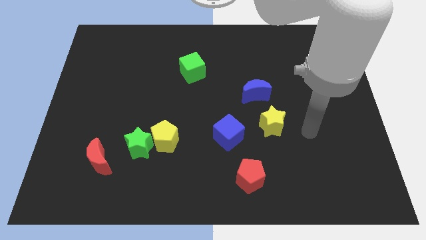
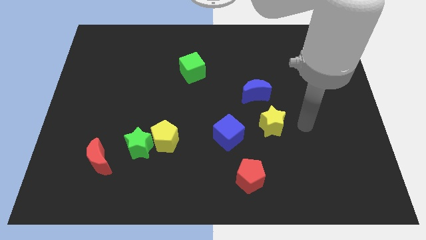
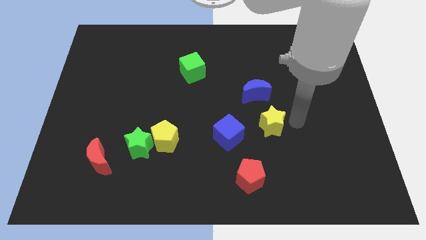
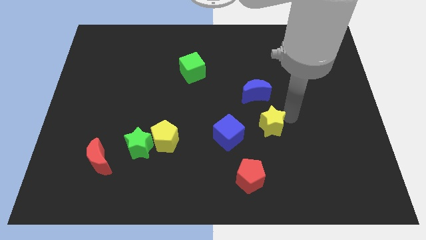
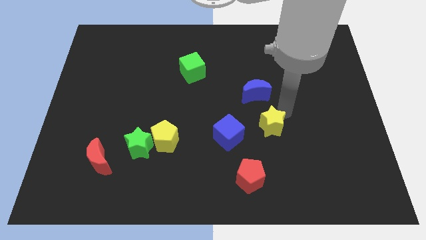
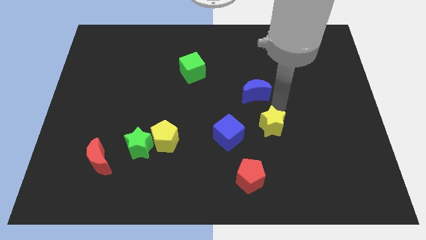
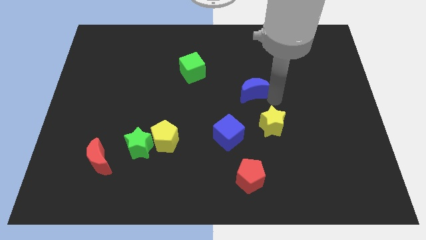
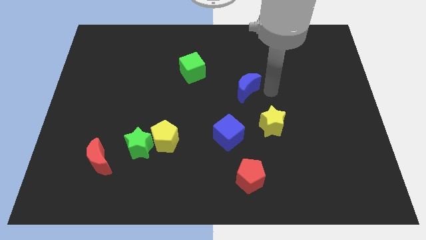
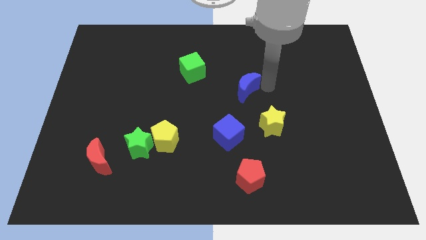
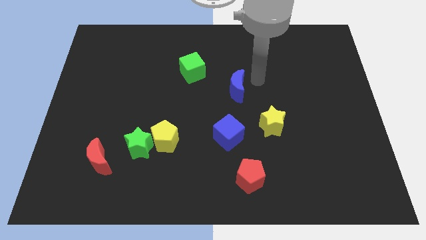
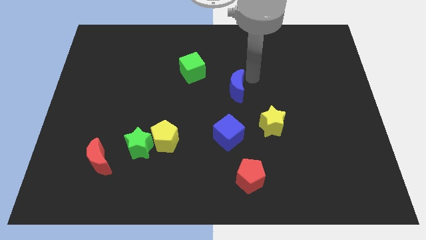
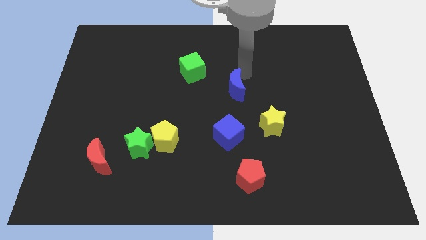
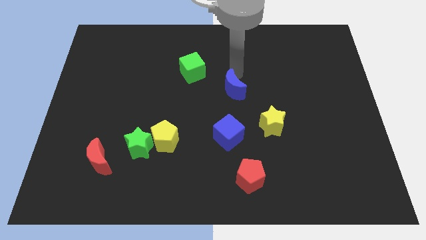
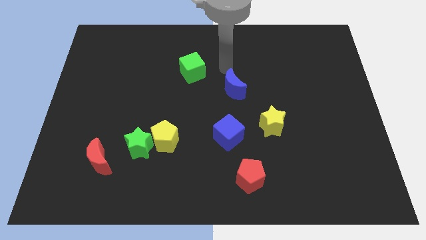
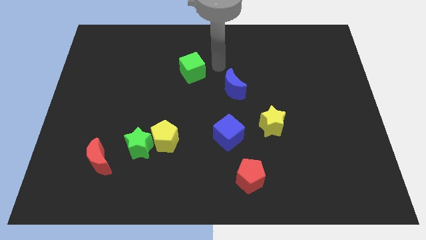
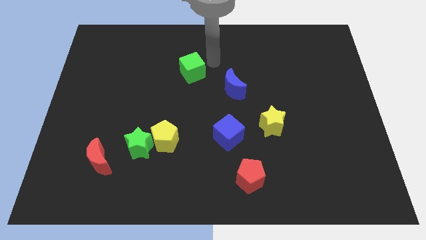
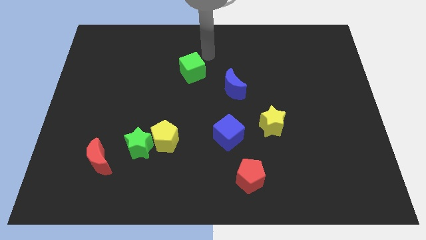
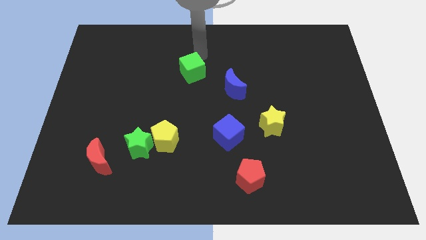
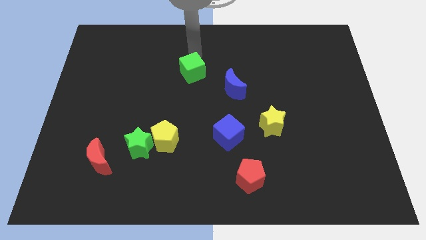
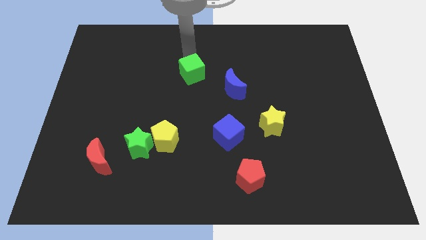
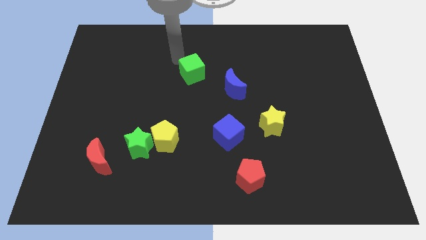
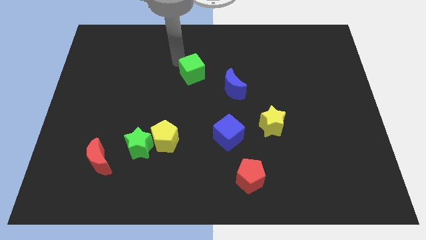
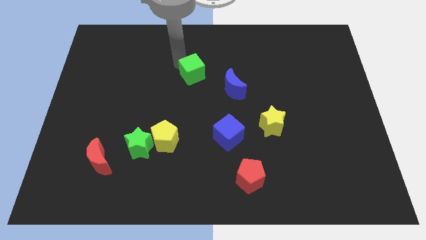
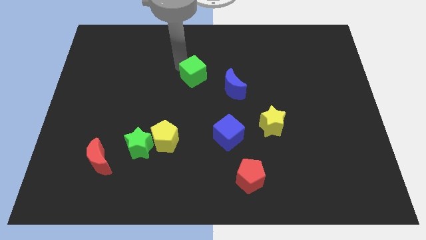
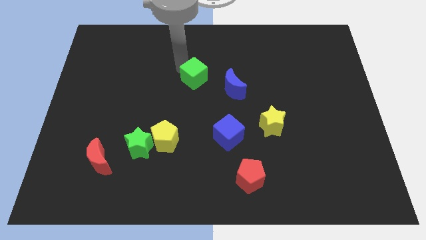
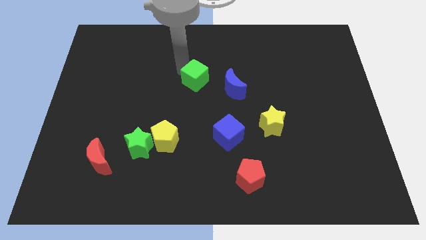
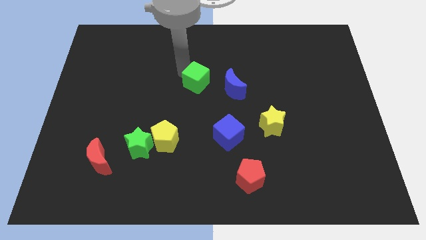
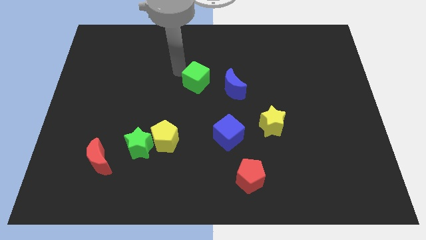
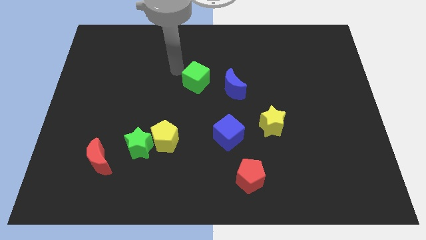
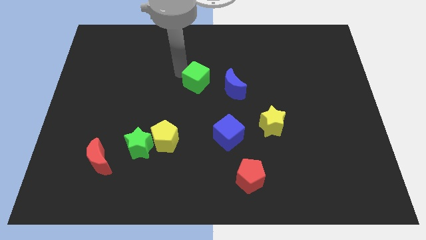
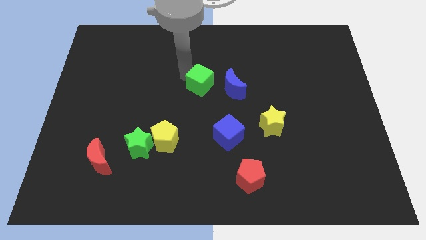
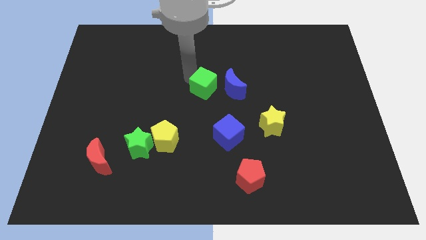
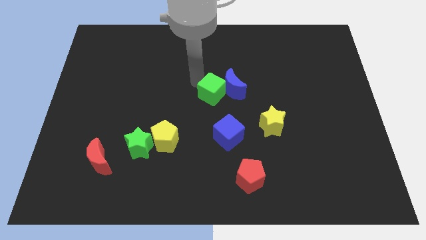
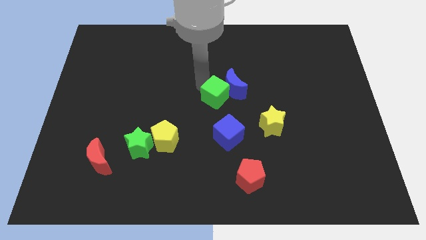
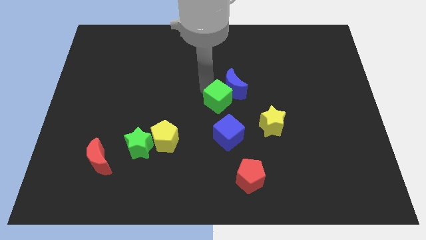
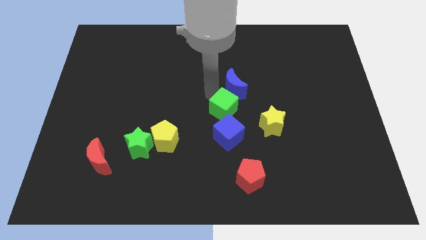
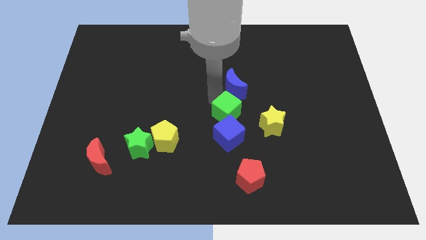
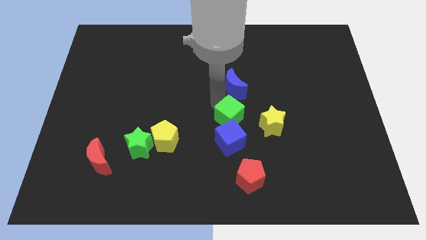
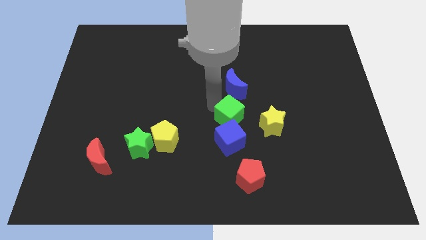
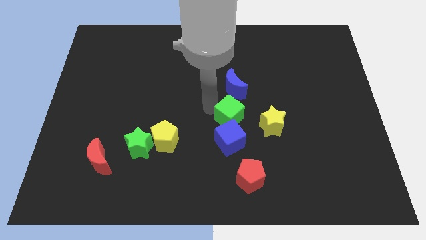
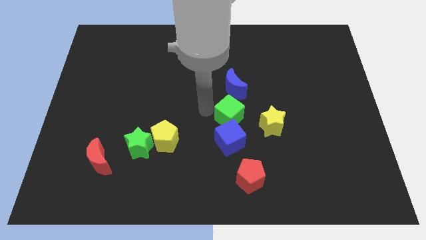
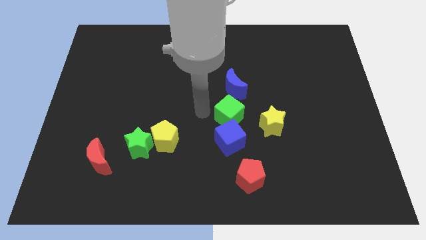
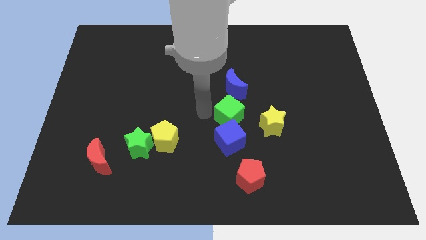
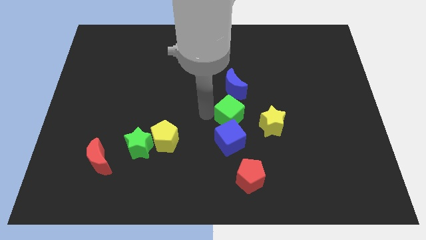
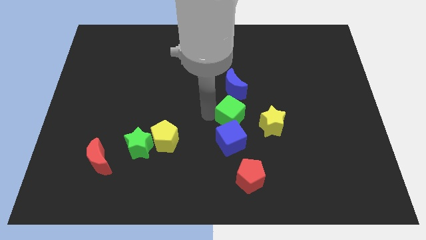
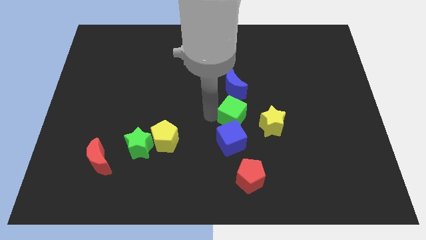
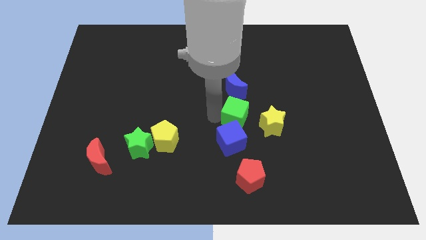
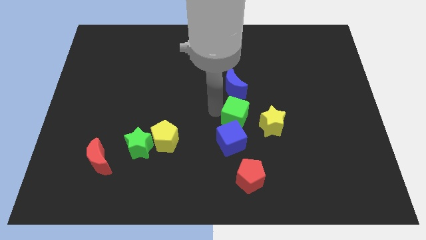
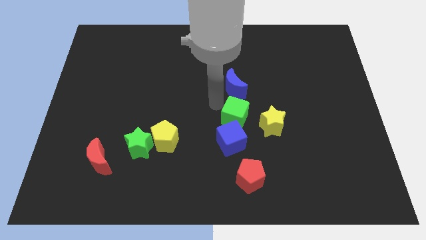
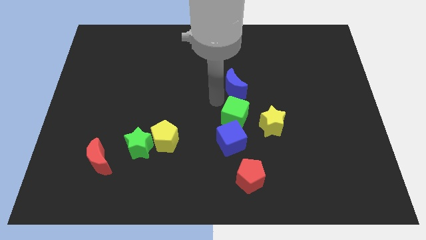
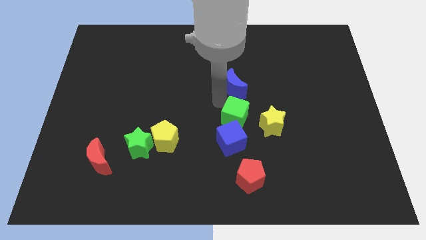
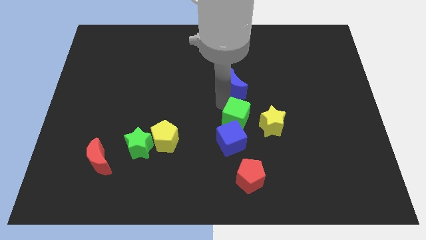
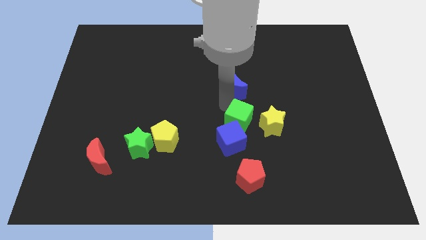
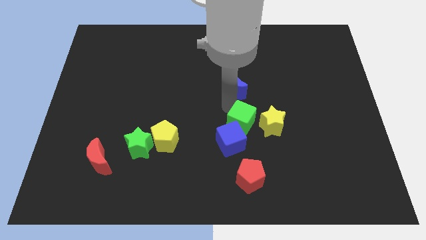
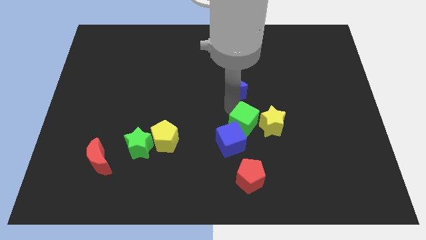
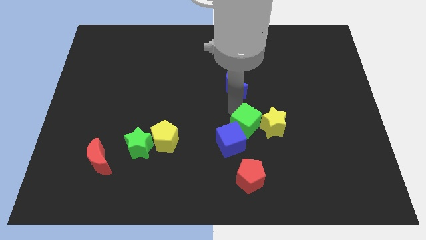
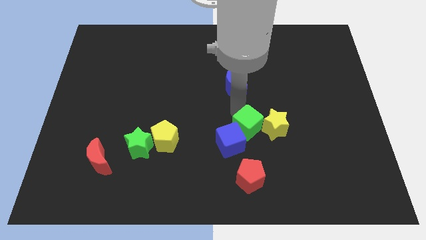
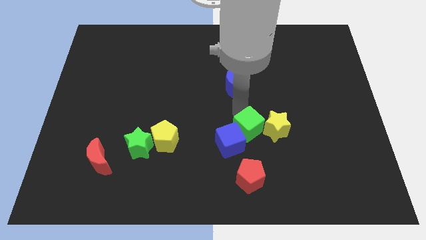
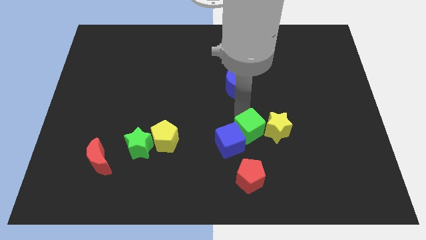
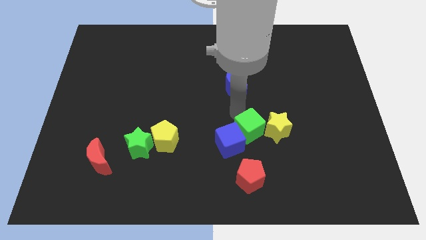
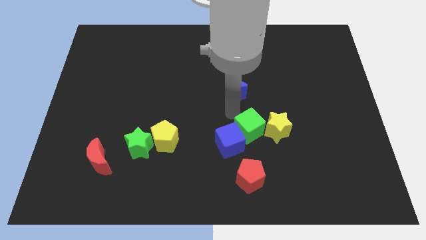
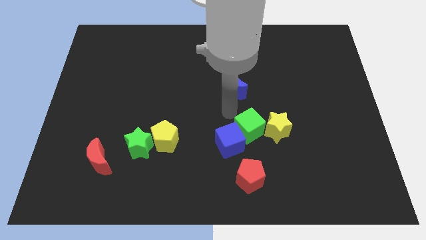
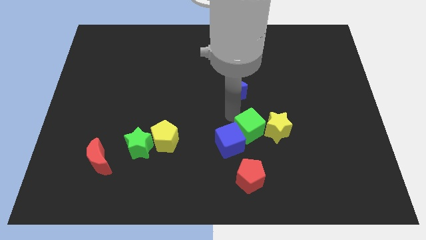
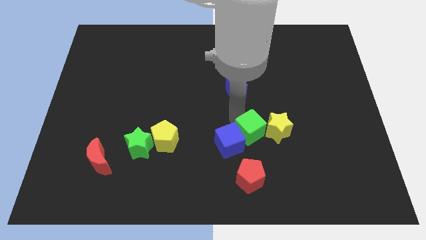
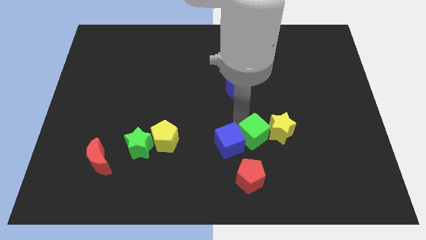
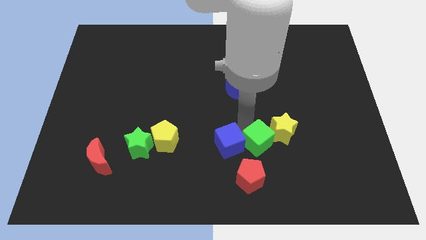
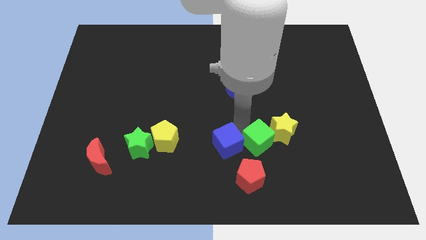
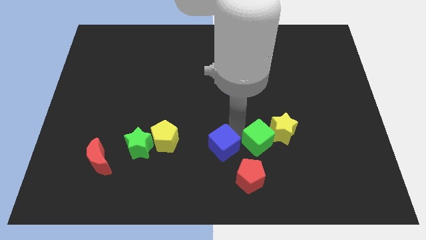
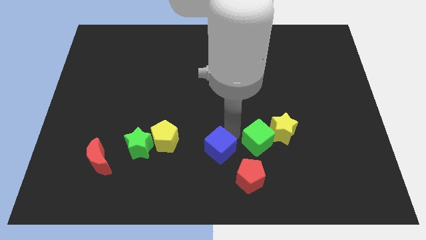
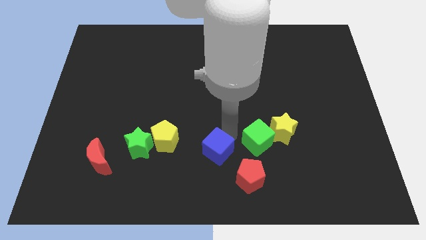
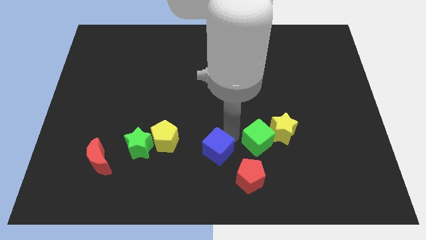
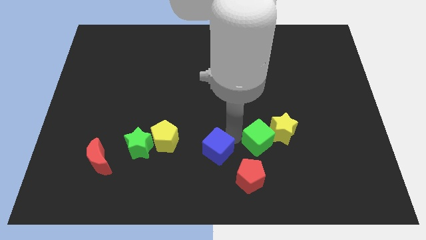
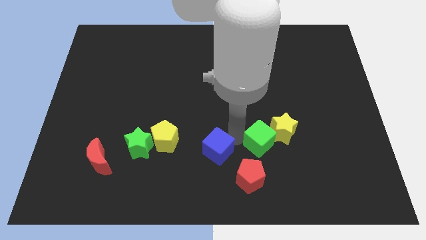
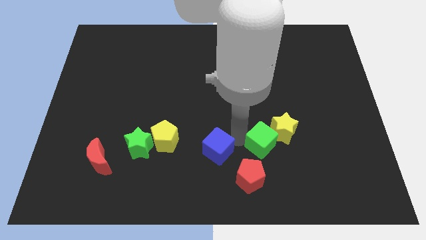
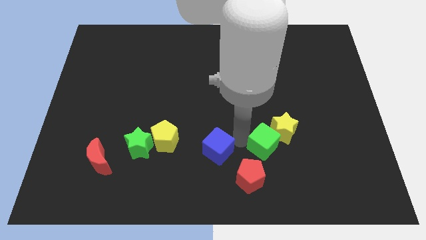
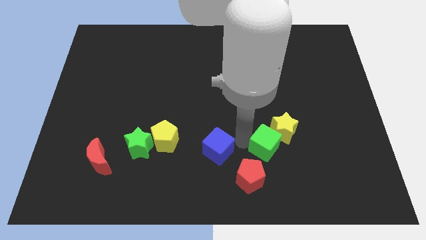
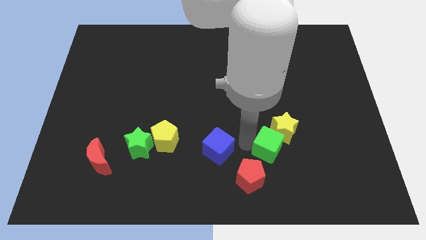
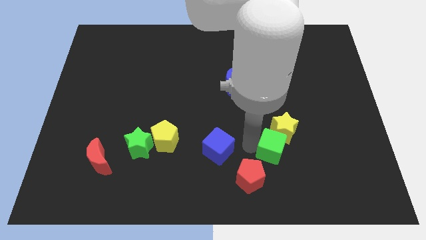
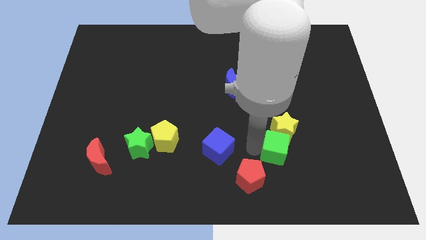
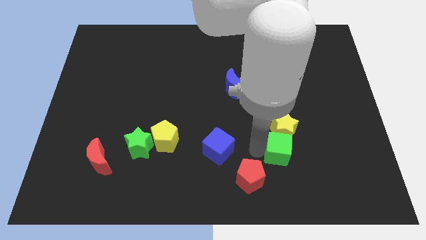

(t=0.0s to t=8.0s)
push the green cube to the bottom right side of the yellow star

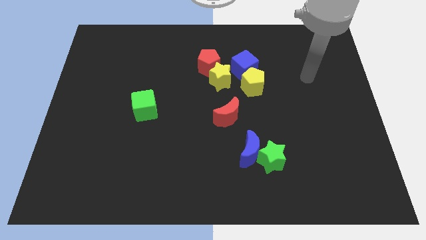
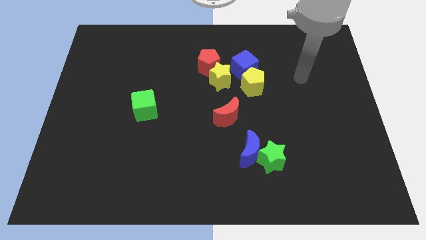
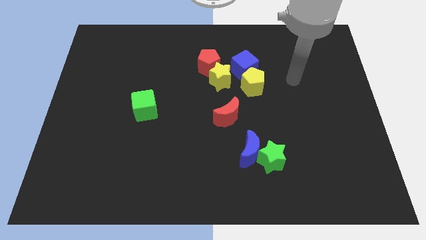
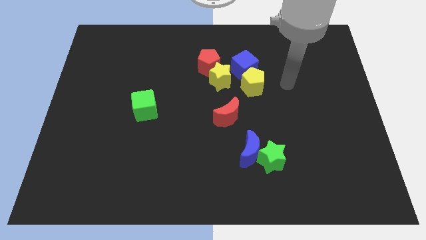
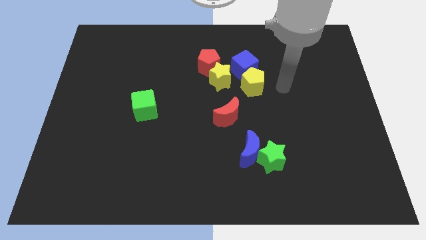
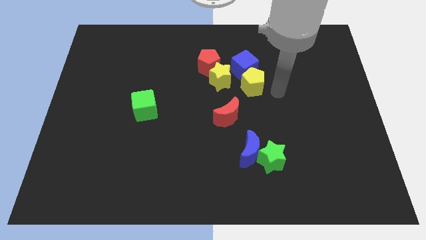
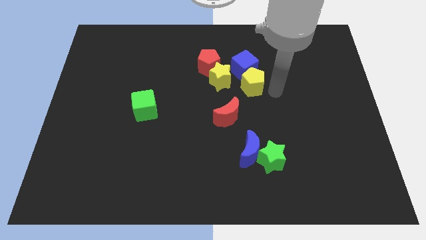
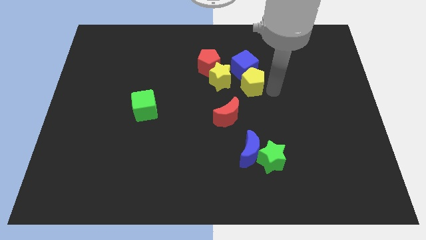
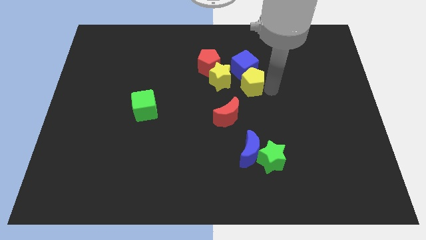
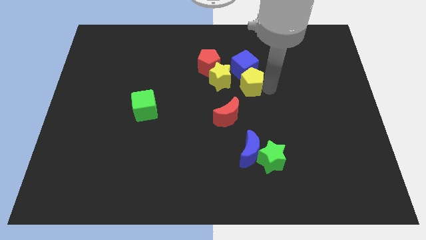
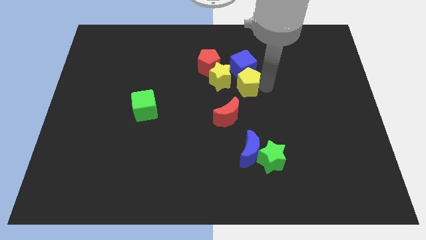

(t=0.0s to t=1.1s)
push the yellow pentagon to the top side of the red moon
